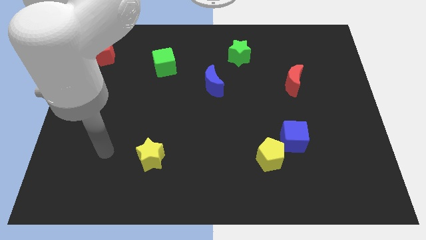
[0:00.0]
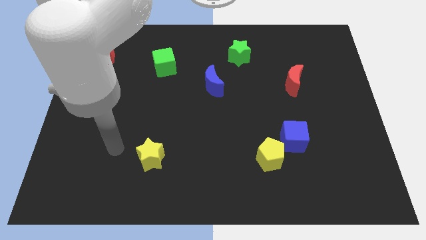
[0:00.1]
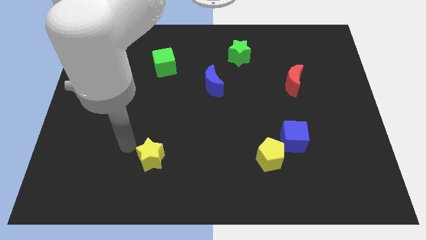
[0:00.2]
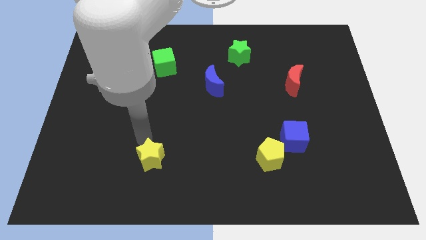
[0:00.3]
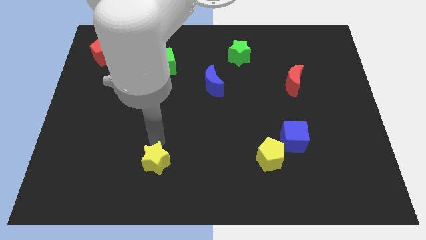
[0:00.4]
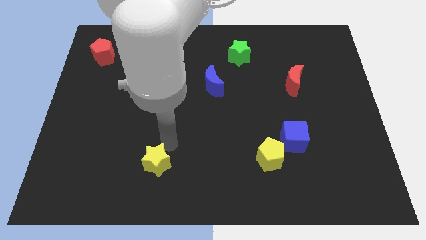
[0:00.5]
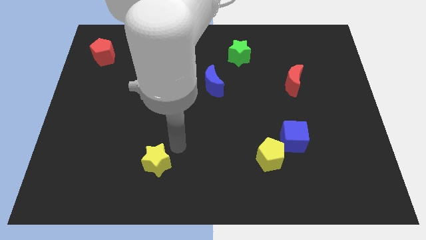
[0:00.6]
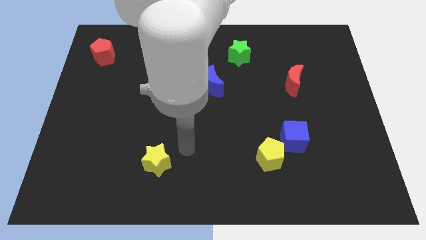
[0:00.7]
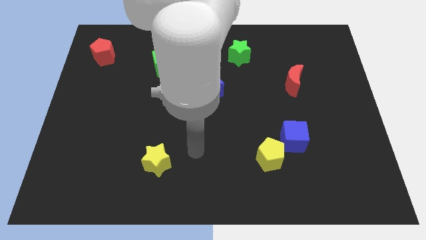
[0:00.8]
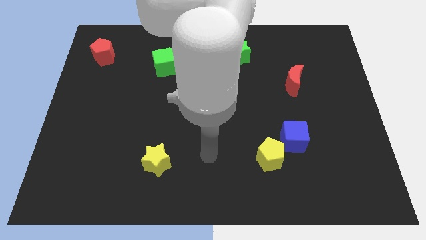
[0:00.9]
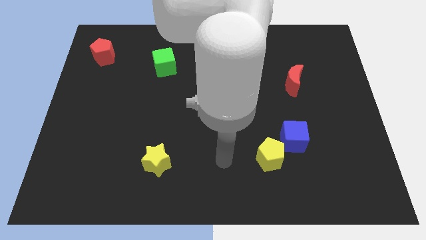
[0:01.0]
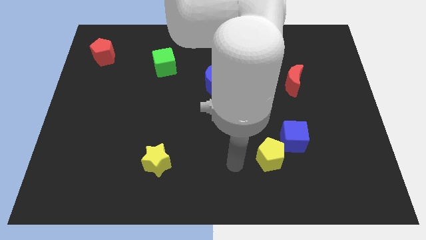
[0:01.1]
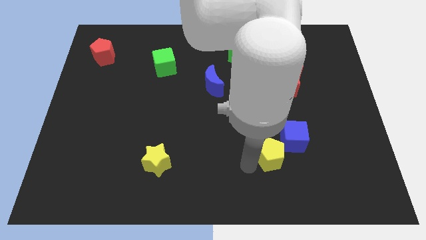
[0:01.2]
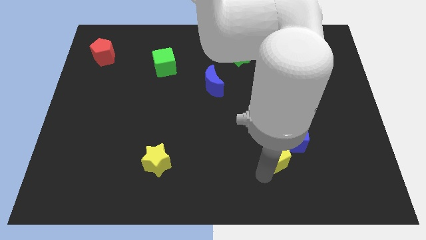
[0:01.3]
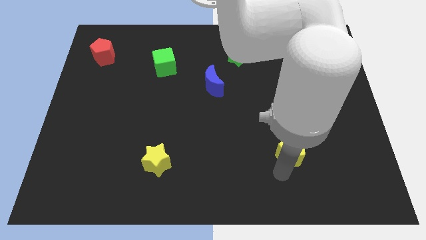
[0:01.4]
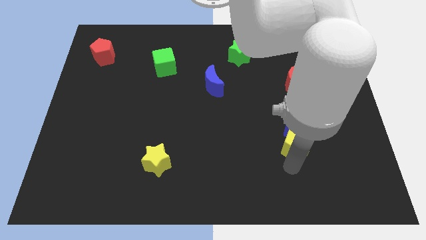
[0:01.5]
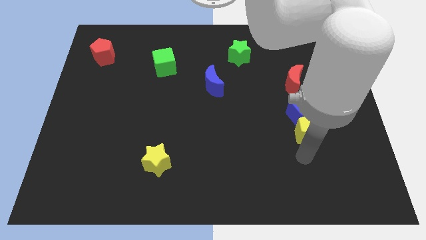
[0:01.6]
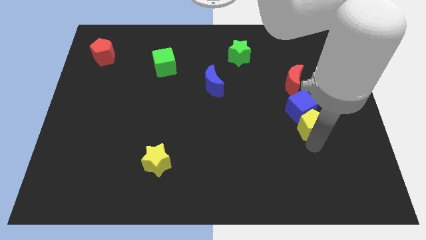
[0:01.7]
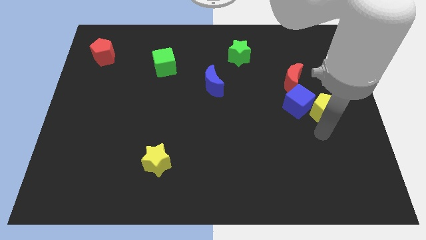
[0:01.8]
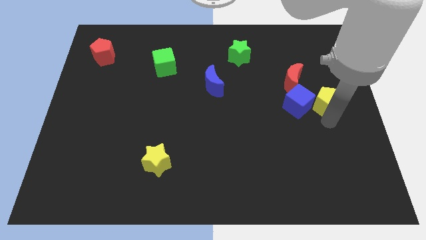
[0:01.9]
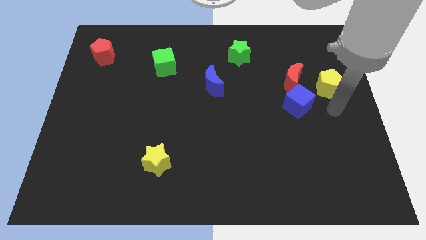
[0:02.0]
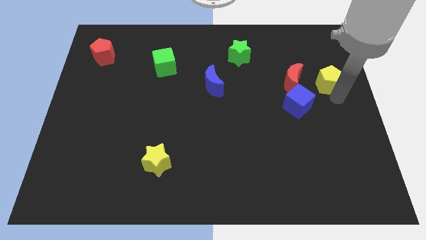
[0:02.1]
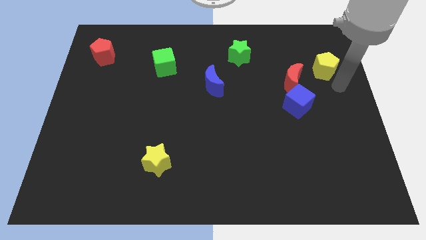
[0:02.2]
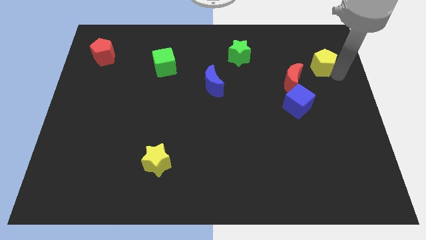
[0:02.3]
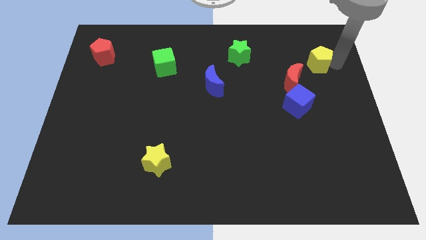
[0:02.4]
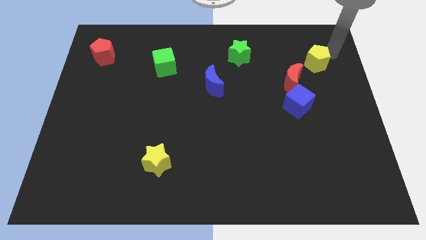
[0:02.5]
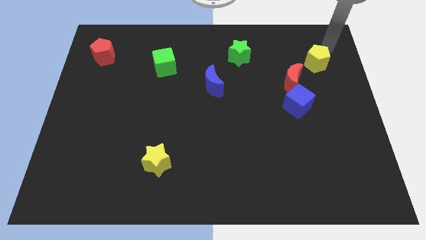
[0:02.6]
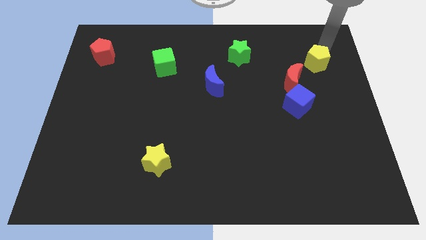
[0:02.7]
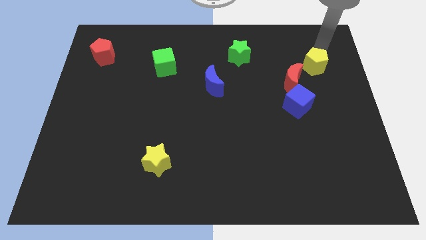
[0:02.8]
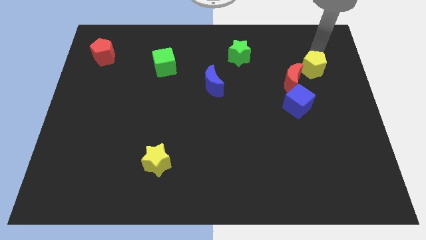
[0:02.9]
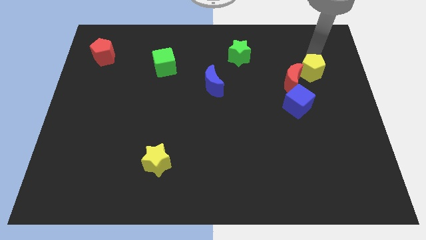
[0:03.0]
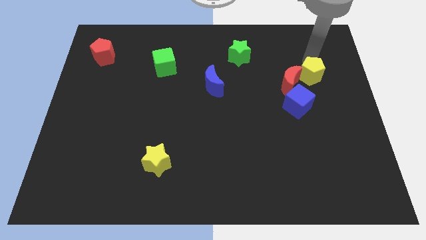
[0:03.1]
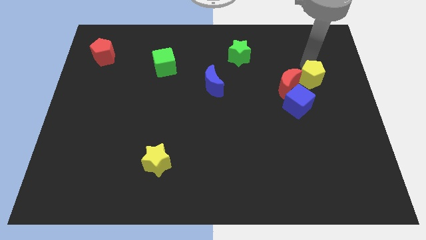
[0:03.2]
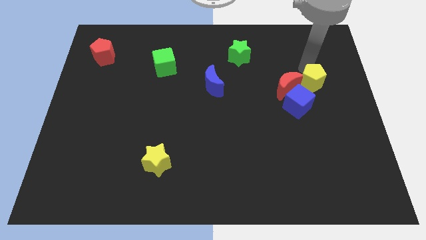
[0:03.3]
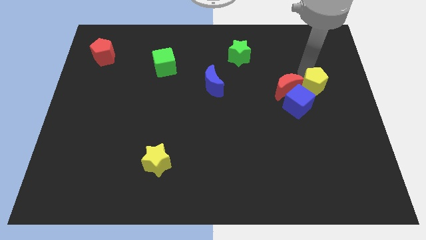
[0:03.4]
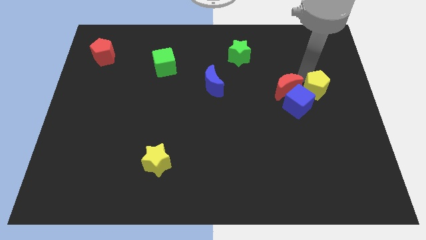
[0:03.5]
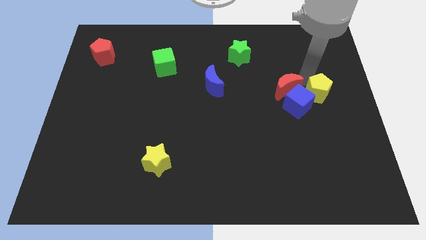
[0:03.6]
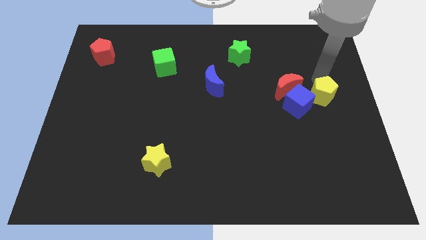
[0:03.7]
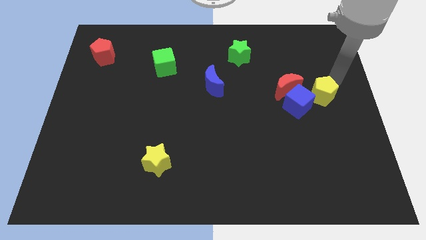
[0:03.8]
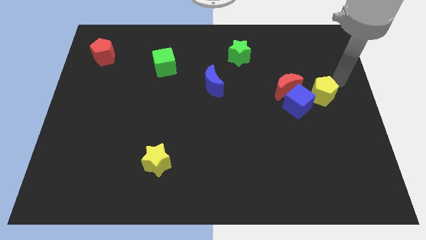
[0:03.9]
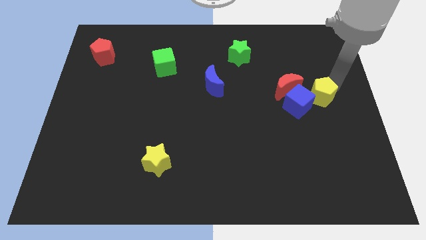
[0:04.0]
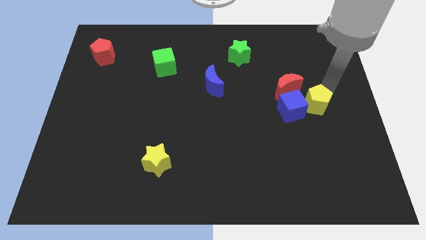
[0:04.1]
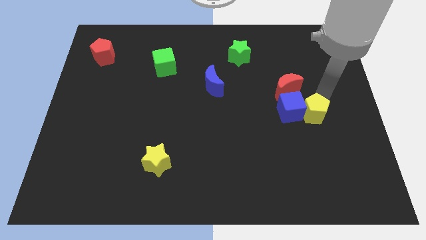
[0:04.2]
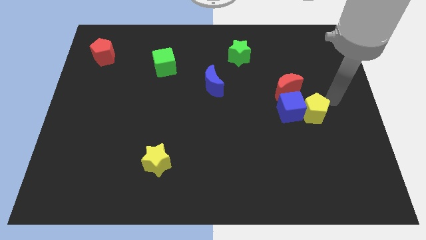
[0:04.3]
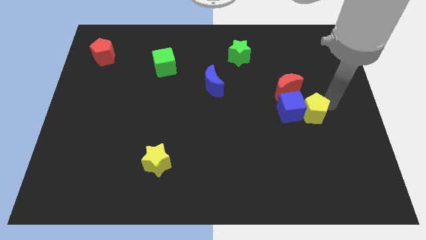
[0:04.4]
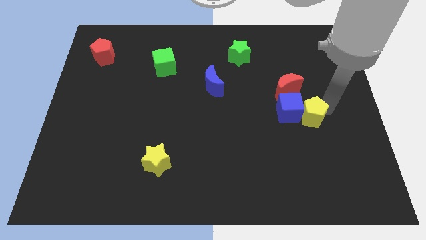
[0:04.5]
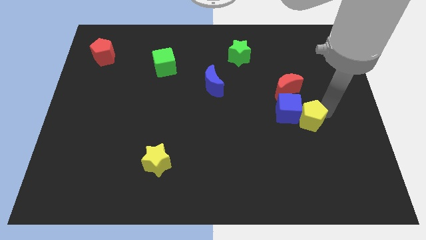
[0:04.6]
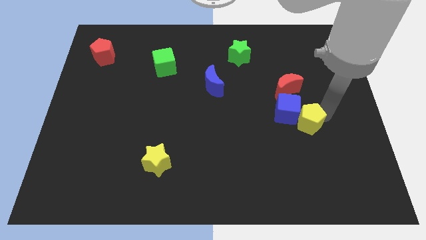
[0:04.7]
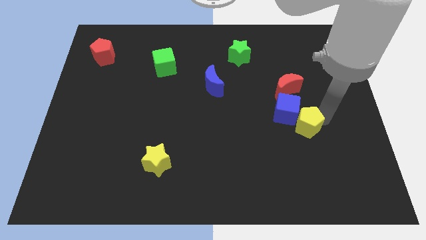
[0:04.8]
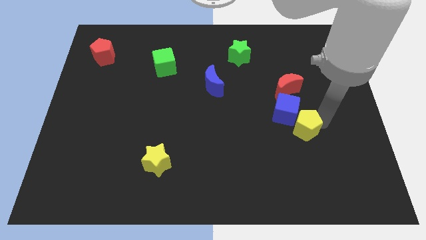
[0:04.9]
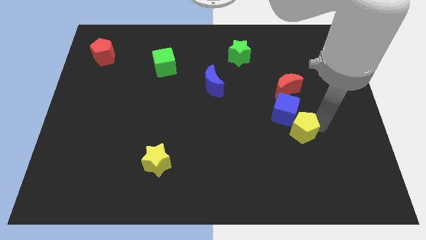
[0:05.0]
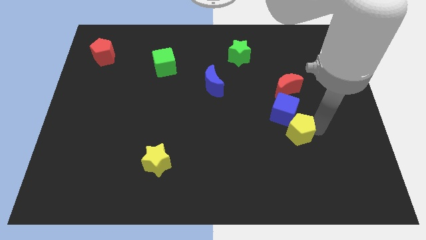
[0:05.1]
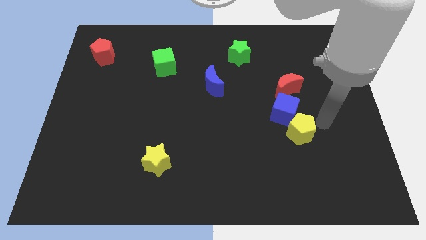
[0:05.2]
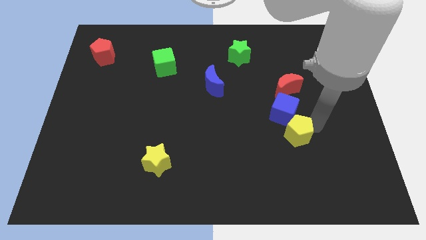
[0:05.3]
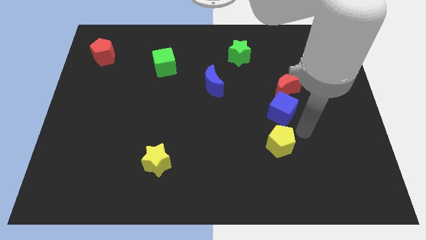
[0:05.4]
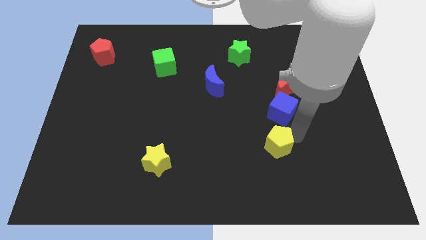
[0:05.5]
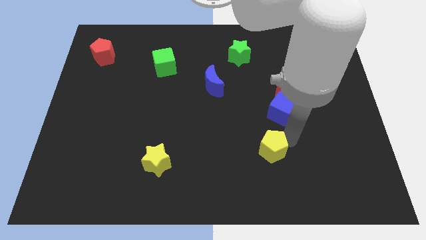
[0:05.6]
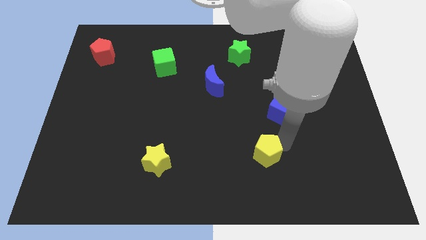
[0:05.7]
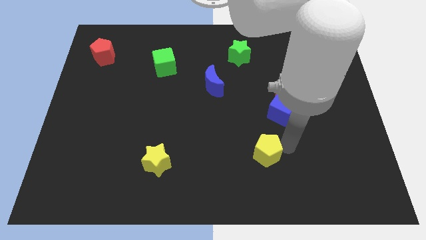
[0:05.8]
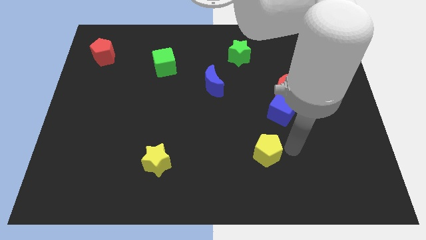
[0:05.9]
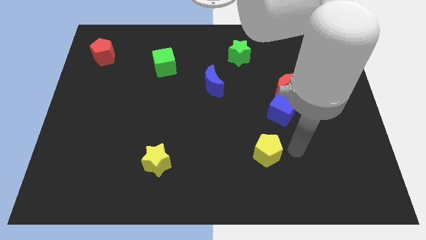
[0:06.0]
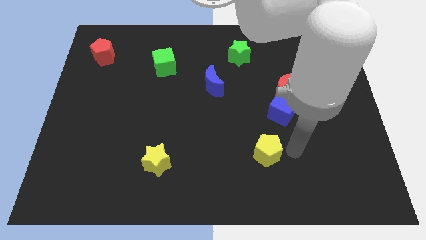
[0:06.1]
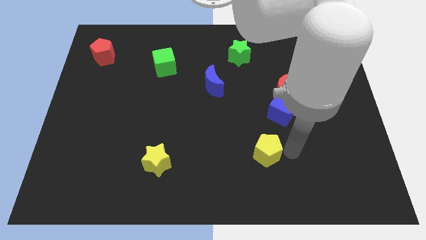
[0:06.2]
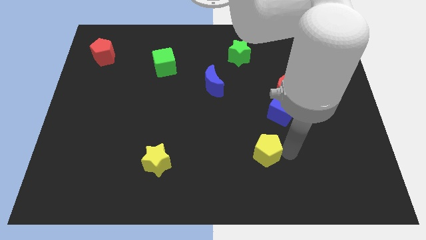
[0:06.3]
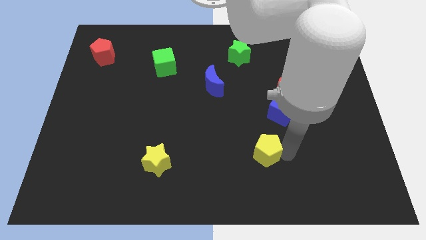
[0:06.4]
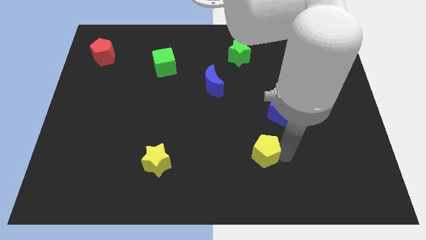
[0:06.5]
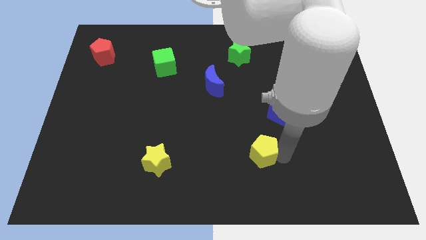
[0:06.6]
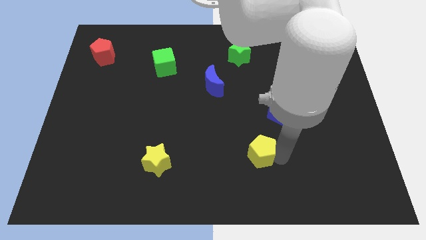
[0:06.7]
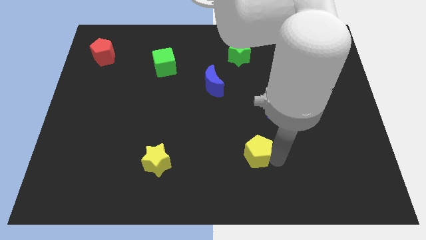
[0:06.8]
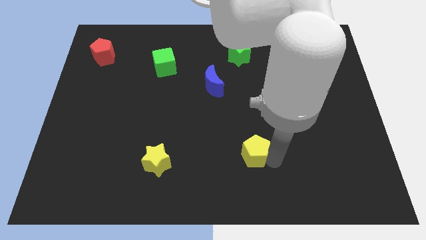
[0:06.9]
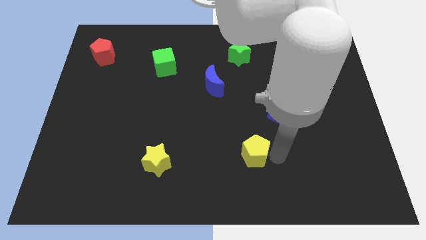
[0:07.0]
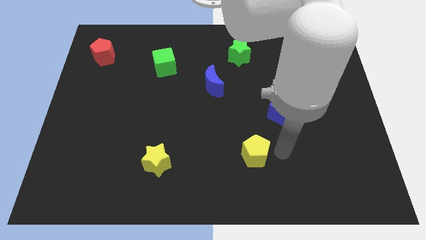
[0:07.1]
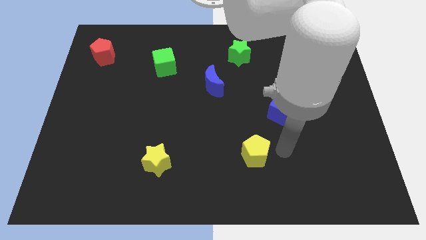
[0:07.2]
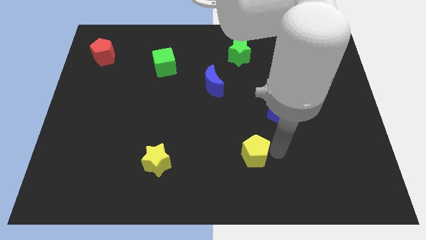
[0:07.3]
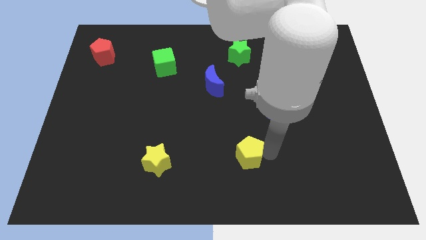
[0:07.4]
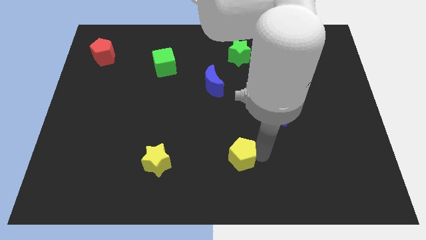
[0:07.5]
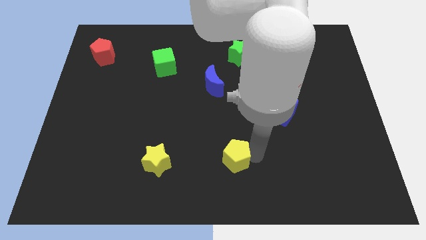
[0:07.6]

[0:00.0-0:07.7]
move the yellow pentagon a little to the left

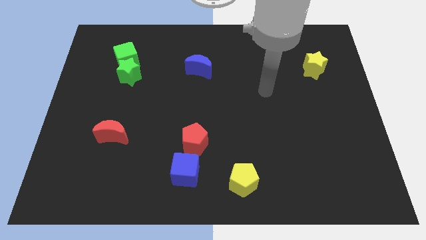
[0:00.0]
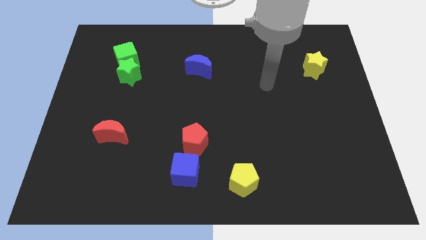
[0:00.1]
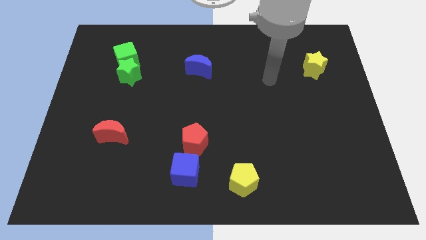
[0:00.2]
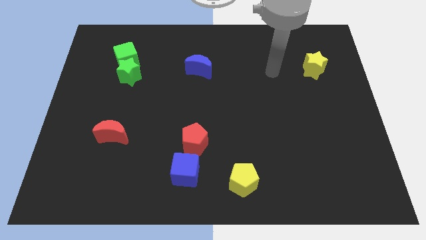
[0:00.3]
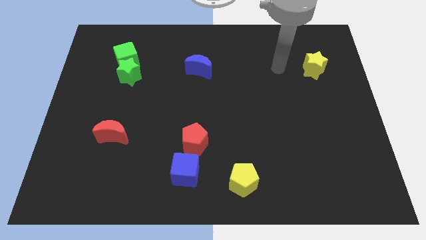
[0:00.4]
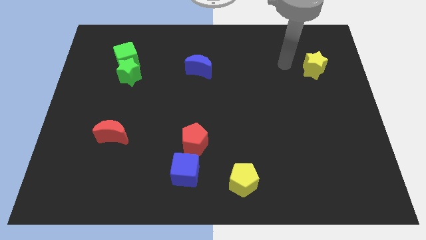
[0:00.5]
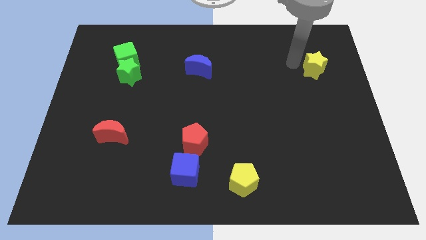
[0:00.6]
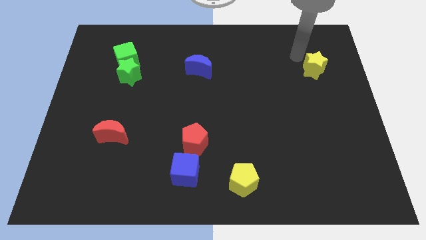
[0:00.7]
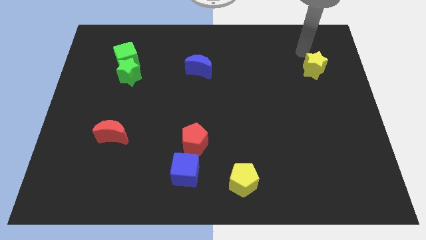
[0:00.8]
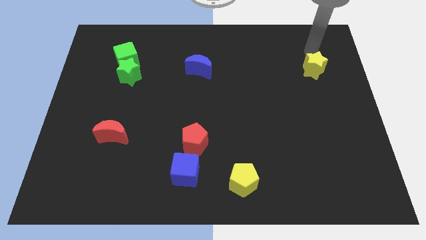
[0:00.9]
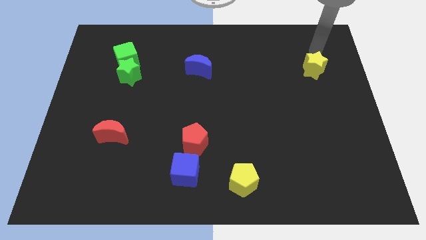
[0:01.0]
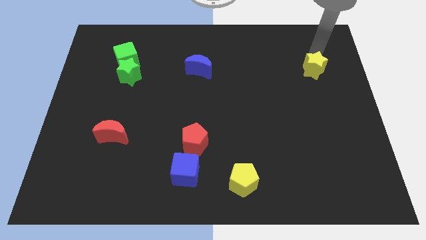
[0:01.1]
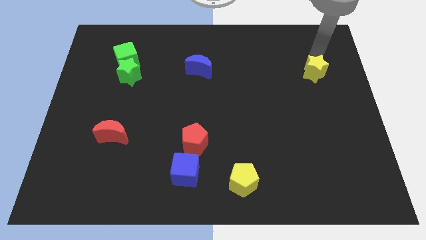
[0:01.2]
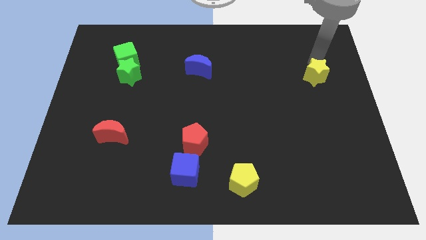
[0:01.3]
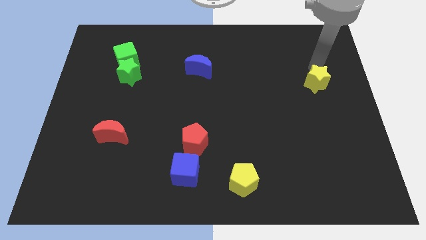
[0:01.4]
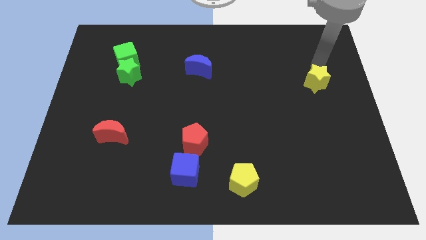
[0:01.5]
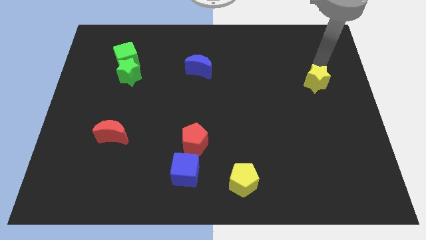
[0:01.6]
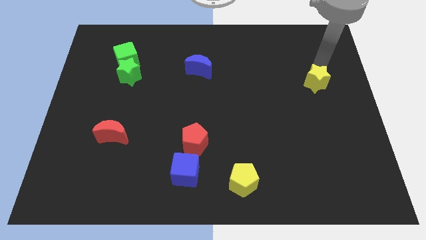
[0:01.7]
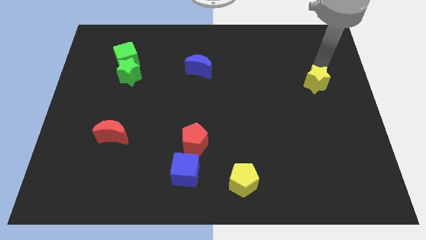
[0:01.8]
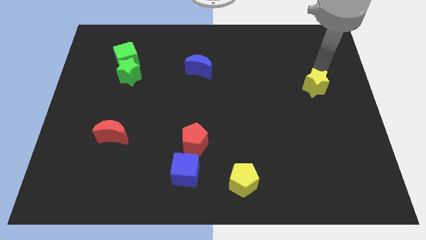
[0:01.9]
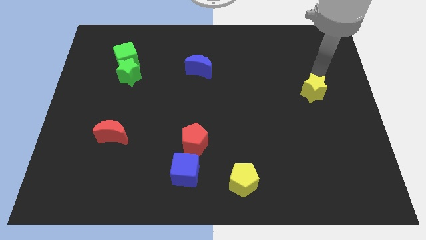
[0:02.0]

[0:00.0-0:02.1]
slide the yellow star down somewhat
